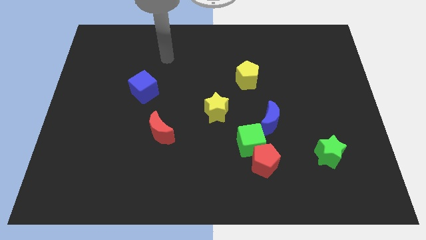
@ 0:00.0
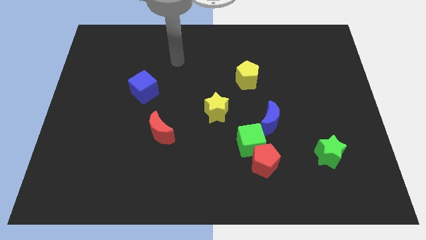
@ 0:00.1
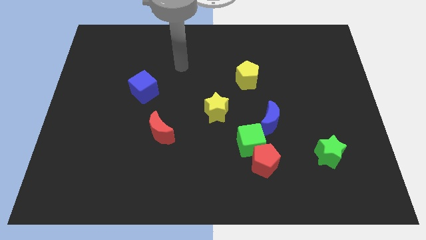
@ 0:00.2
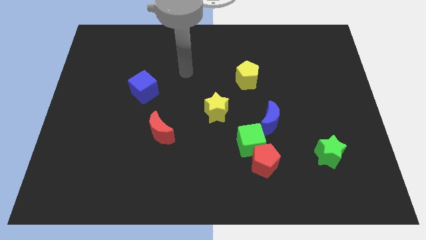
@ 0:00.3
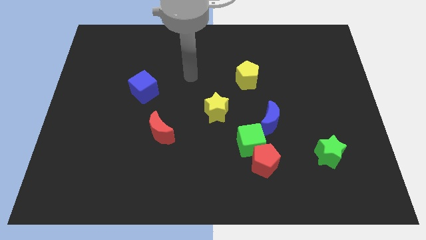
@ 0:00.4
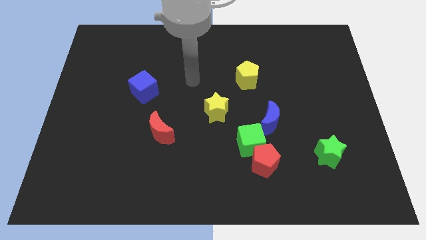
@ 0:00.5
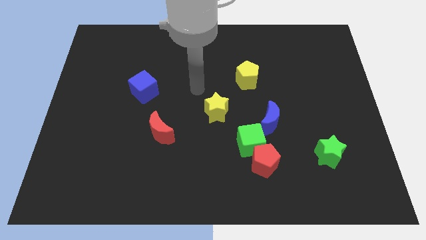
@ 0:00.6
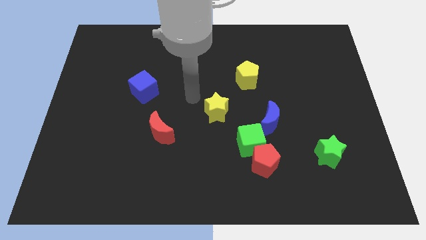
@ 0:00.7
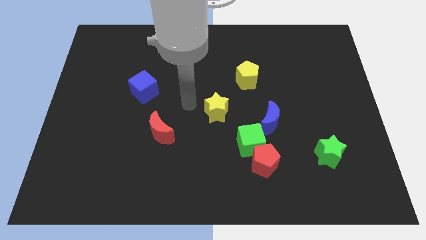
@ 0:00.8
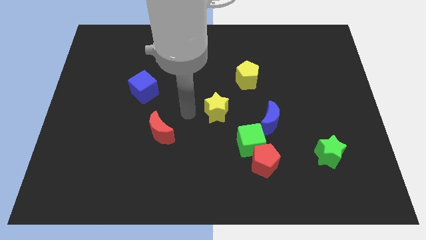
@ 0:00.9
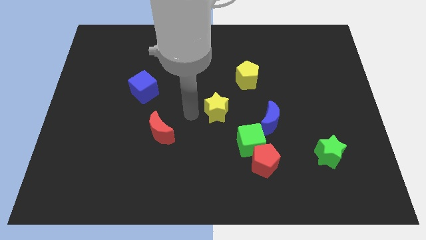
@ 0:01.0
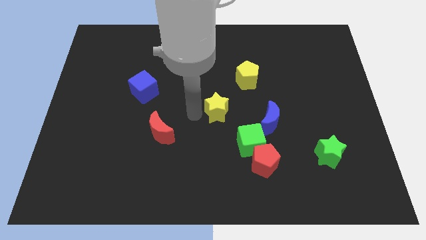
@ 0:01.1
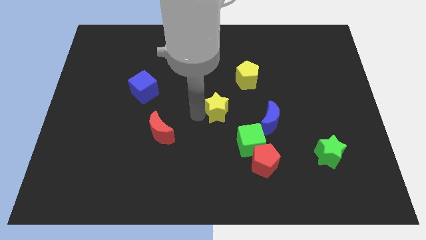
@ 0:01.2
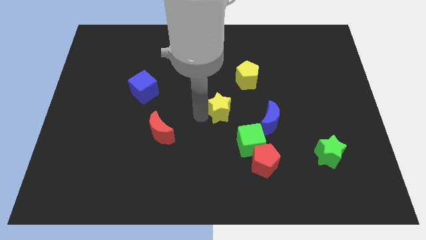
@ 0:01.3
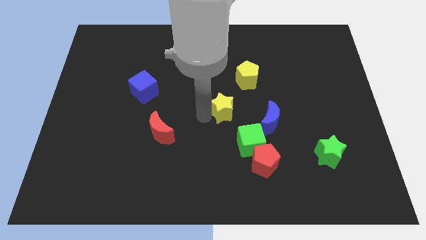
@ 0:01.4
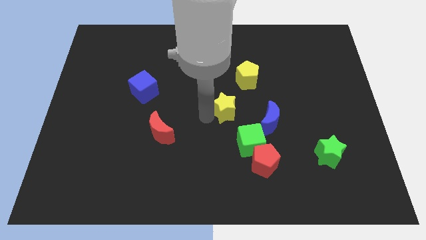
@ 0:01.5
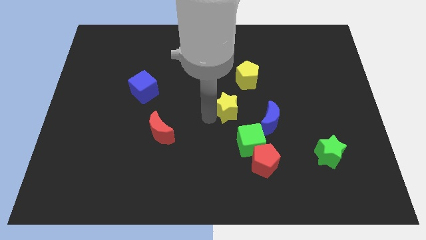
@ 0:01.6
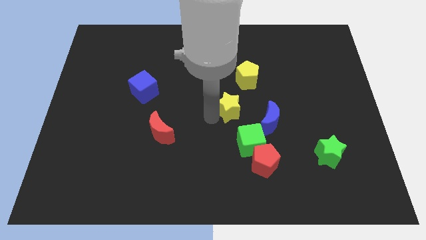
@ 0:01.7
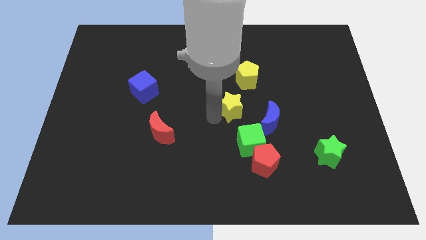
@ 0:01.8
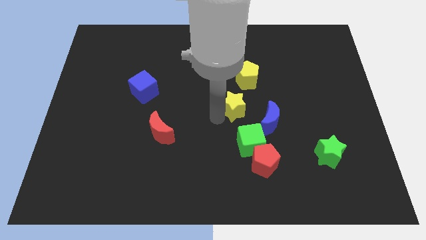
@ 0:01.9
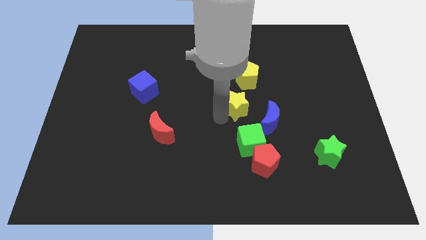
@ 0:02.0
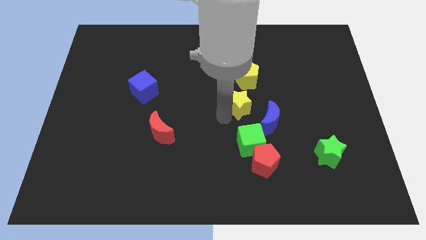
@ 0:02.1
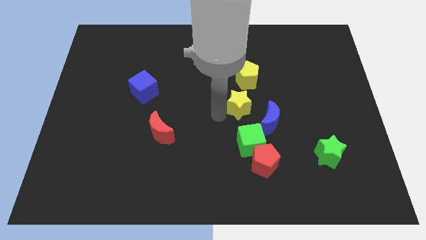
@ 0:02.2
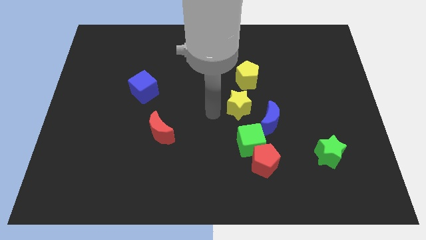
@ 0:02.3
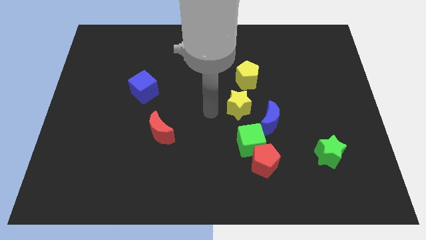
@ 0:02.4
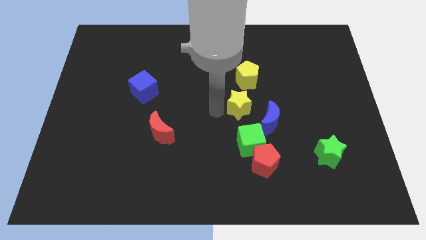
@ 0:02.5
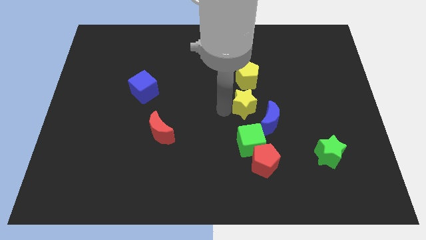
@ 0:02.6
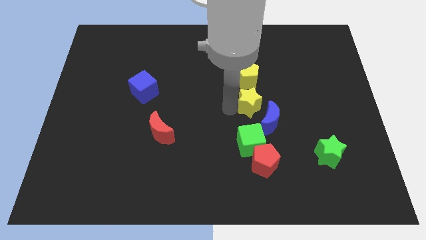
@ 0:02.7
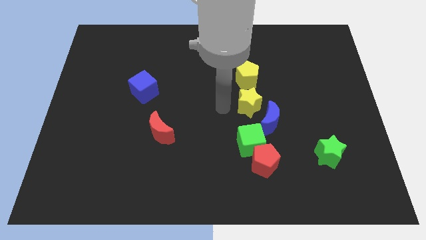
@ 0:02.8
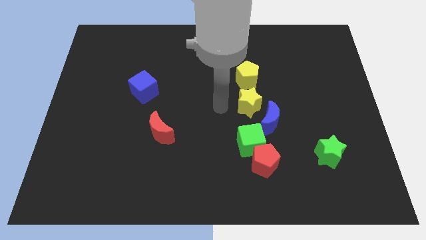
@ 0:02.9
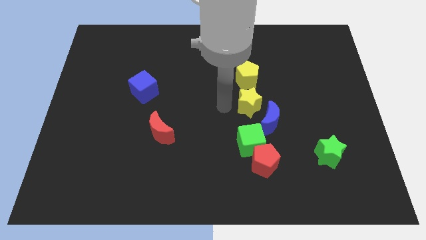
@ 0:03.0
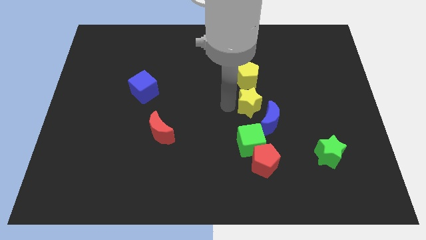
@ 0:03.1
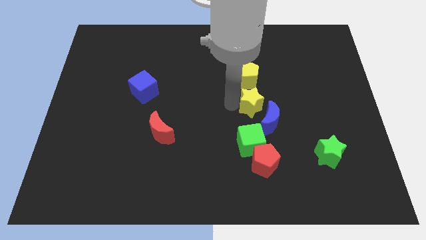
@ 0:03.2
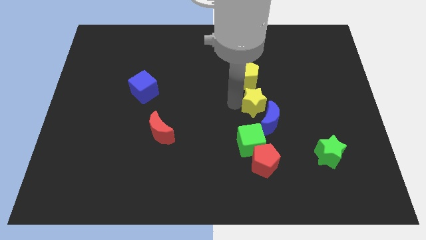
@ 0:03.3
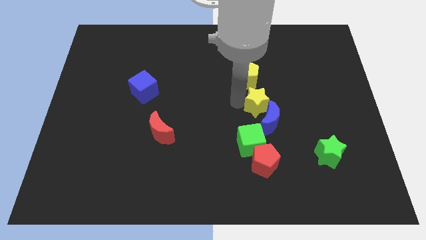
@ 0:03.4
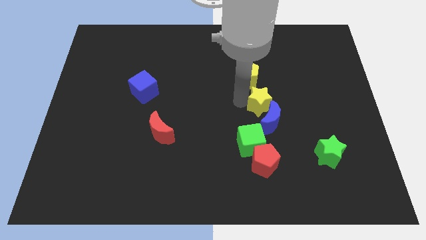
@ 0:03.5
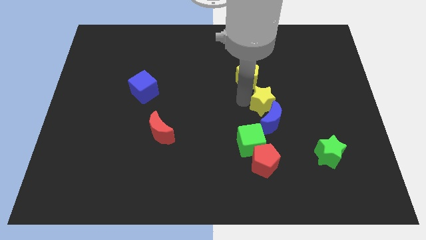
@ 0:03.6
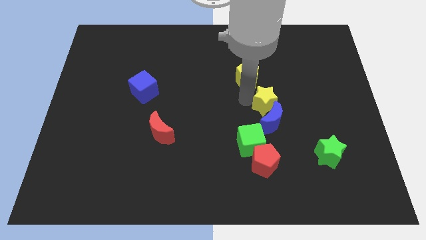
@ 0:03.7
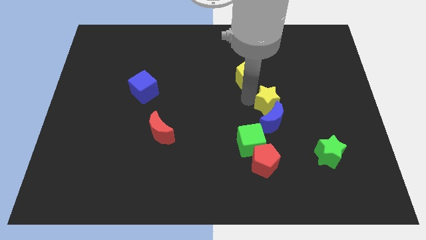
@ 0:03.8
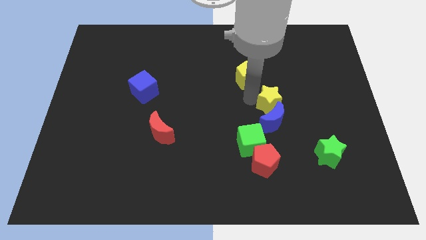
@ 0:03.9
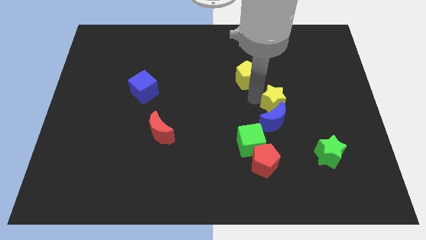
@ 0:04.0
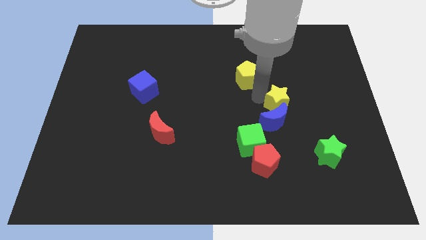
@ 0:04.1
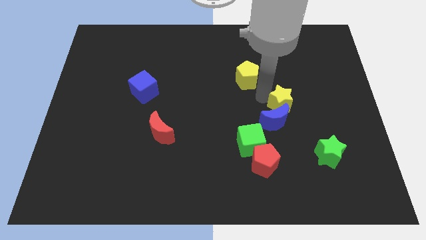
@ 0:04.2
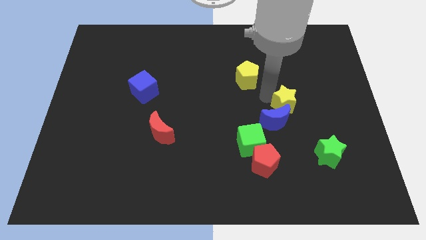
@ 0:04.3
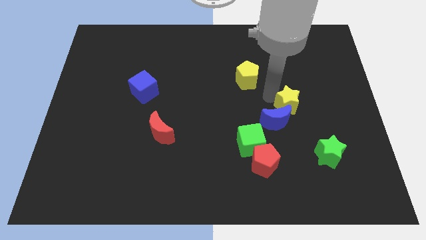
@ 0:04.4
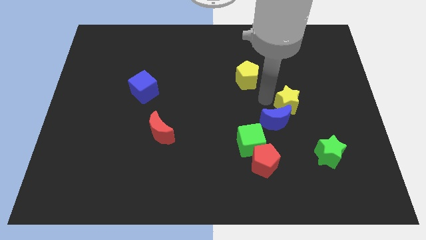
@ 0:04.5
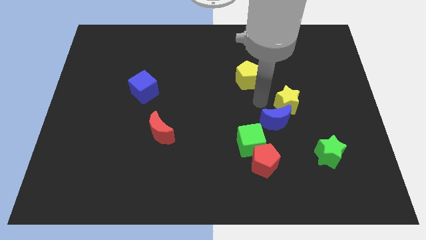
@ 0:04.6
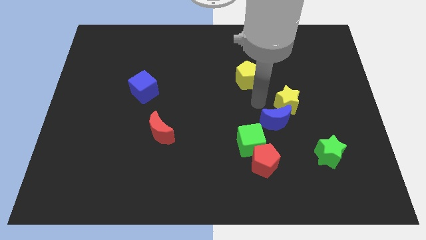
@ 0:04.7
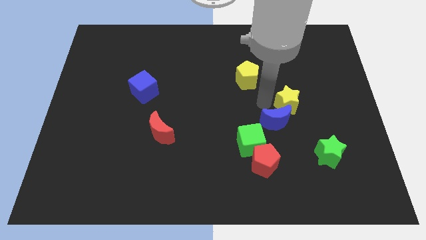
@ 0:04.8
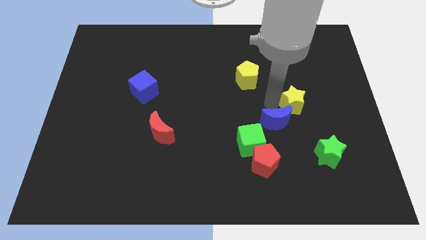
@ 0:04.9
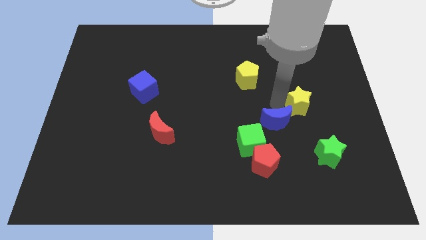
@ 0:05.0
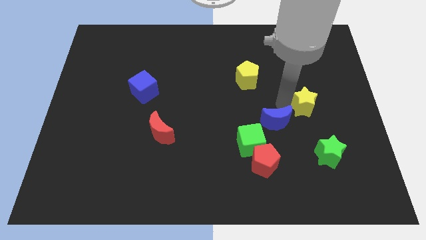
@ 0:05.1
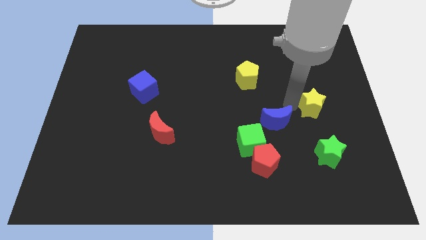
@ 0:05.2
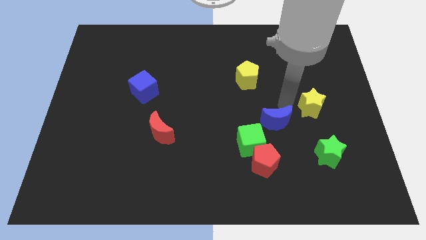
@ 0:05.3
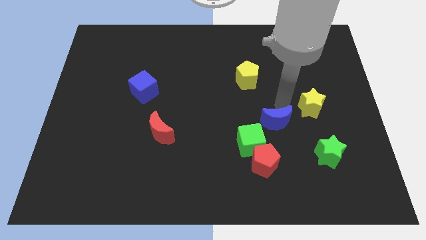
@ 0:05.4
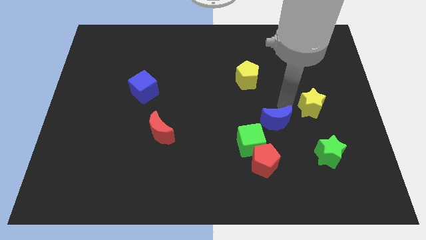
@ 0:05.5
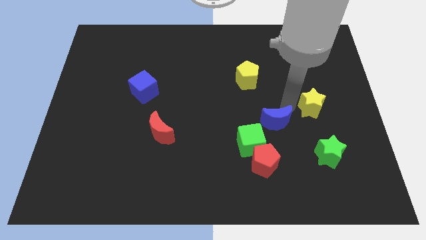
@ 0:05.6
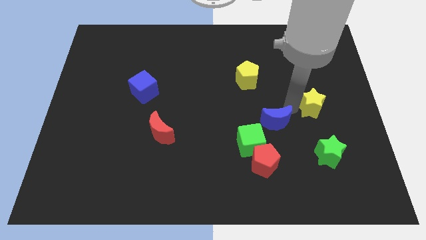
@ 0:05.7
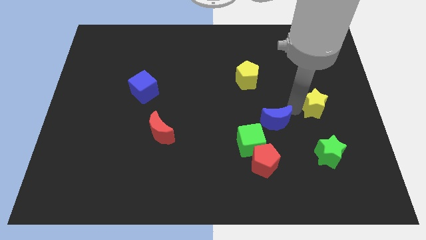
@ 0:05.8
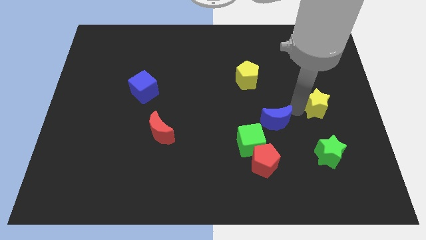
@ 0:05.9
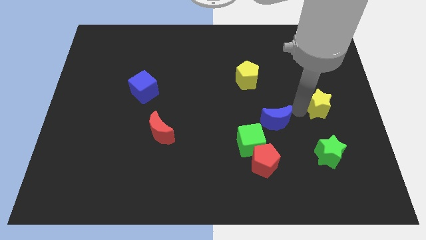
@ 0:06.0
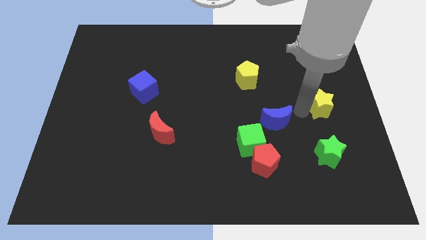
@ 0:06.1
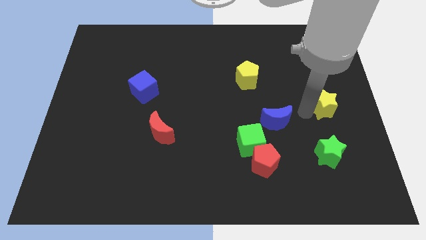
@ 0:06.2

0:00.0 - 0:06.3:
move the yellow star to the center right

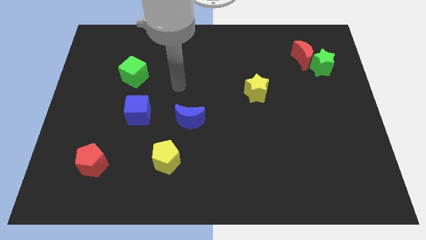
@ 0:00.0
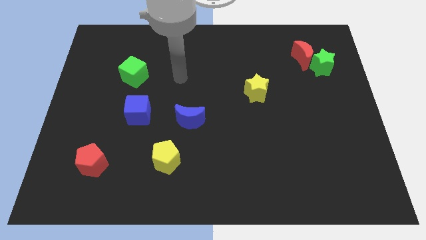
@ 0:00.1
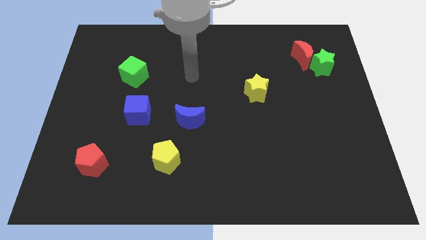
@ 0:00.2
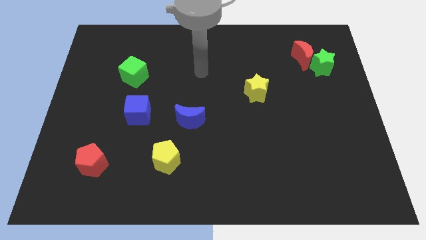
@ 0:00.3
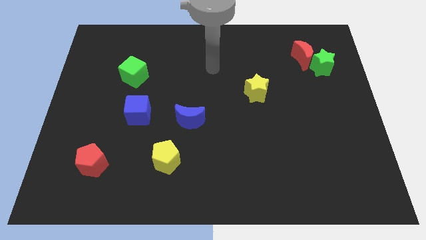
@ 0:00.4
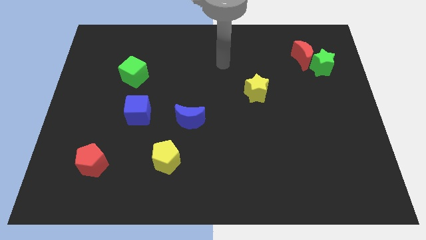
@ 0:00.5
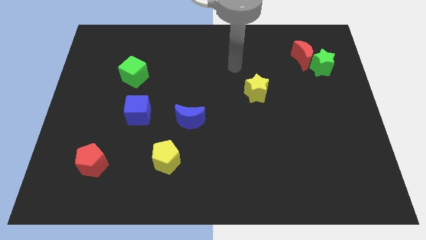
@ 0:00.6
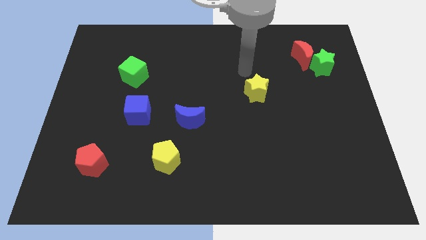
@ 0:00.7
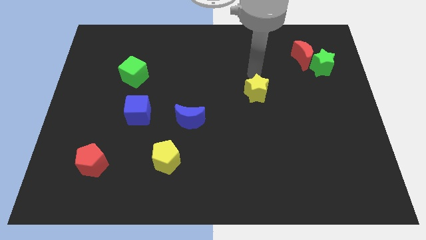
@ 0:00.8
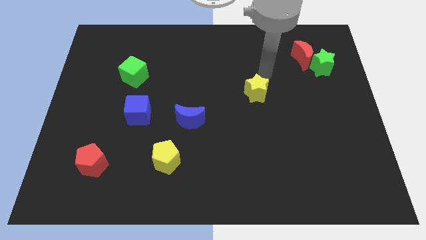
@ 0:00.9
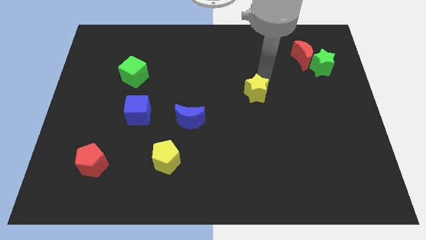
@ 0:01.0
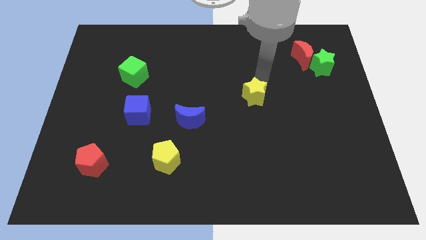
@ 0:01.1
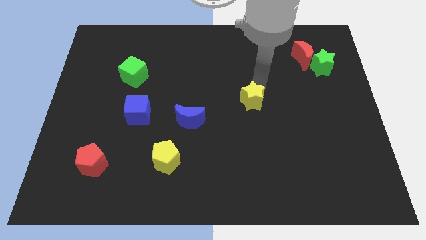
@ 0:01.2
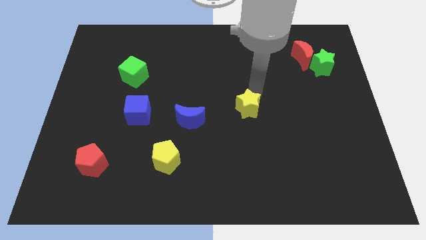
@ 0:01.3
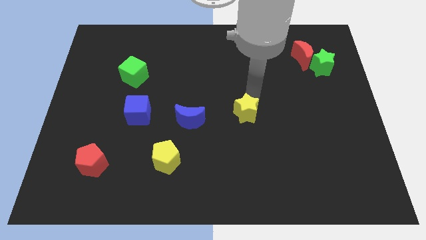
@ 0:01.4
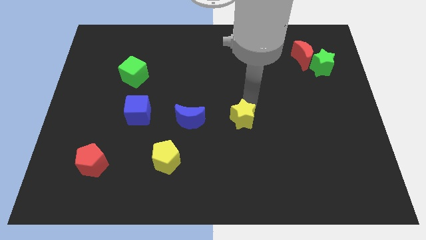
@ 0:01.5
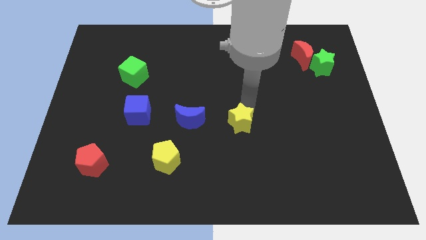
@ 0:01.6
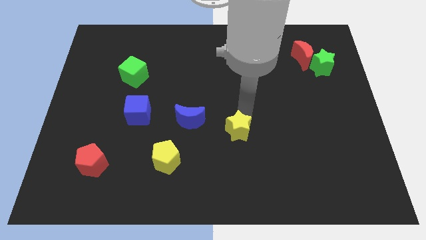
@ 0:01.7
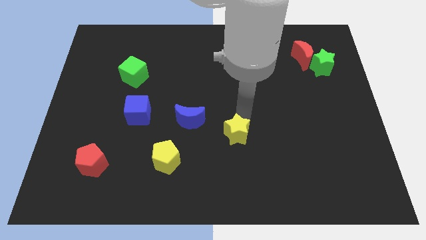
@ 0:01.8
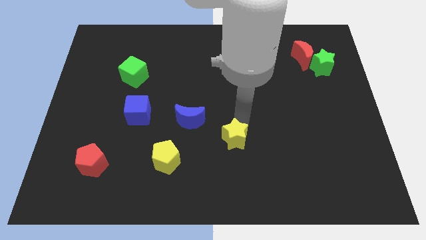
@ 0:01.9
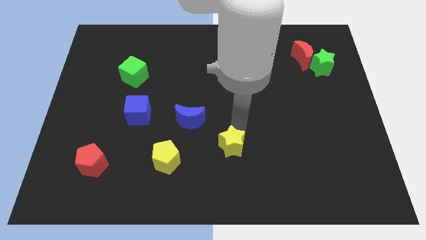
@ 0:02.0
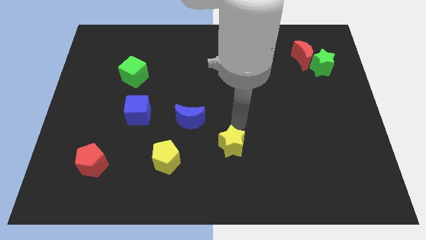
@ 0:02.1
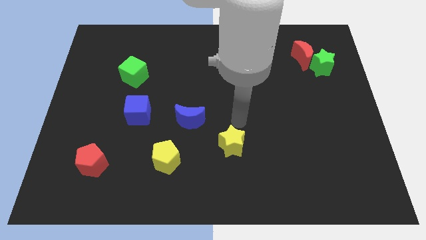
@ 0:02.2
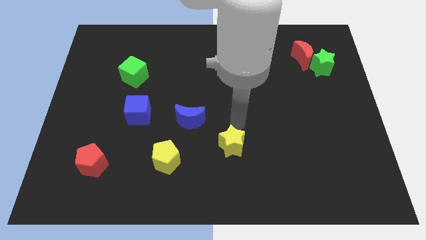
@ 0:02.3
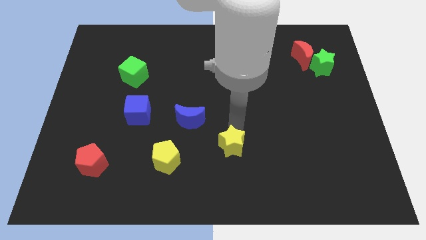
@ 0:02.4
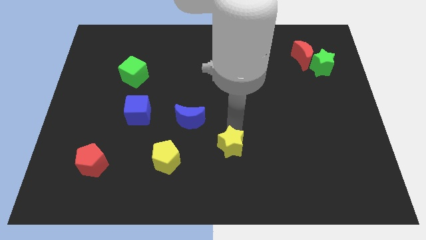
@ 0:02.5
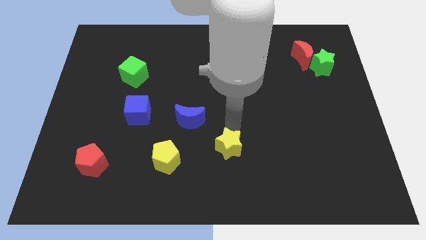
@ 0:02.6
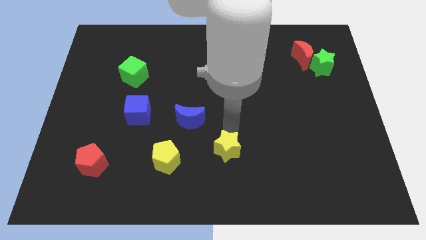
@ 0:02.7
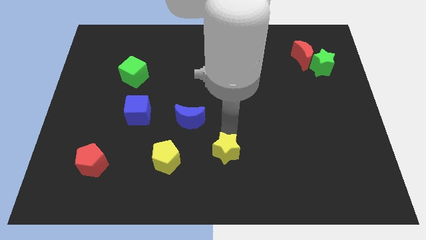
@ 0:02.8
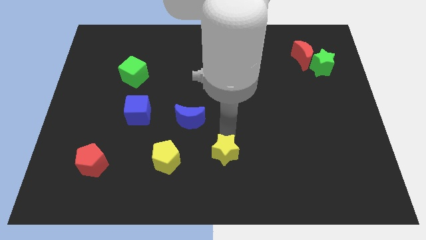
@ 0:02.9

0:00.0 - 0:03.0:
move the yellow star to the bottom side
